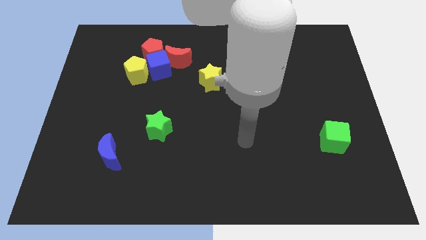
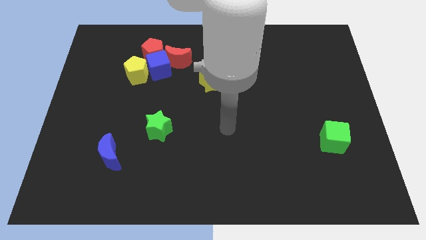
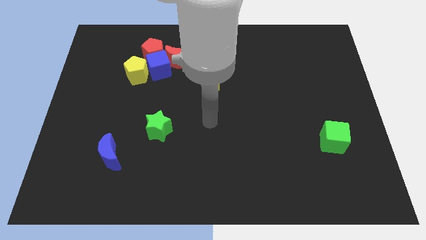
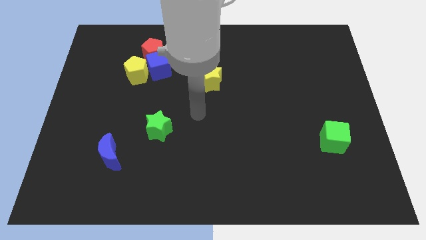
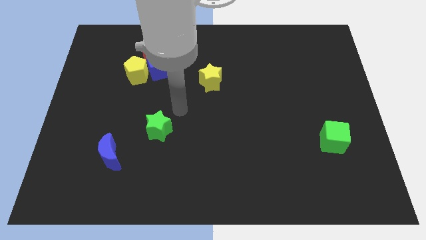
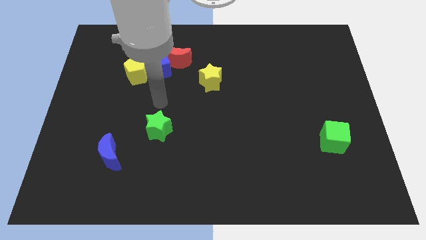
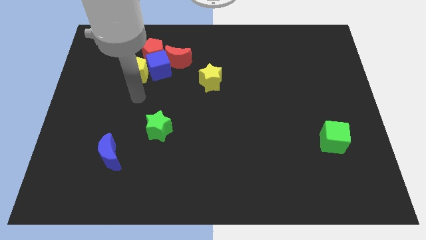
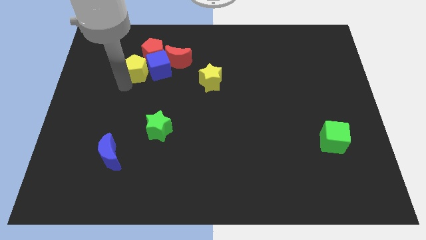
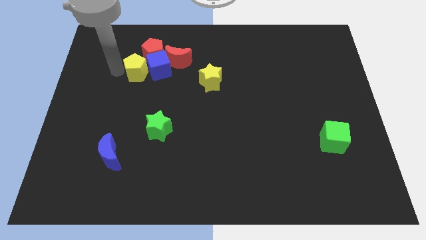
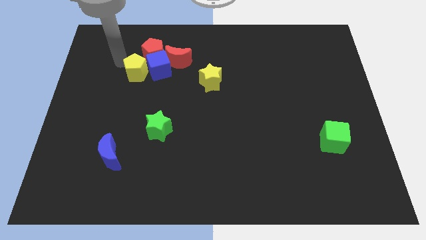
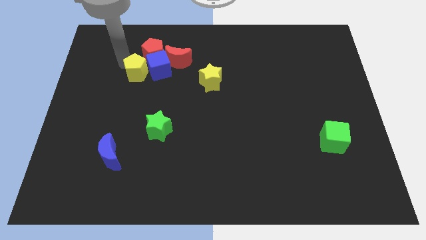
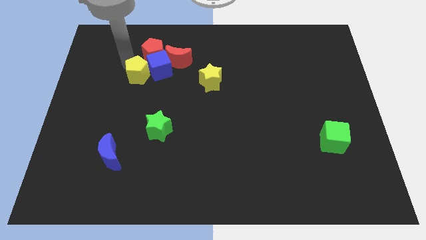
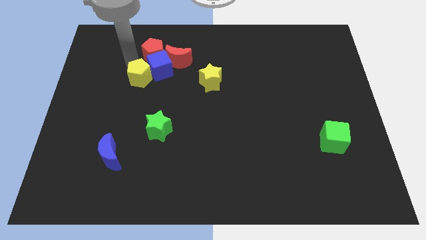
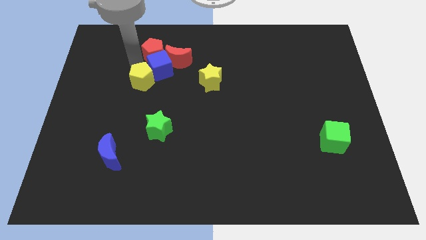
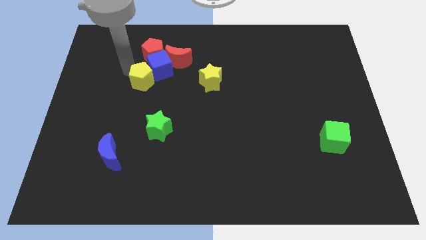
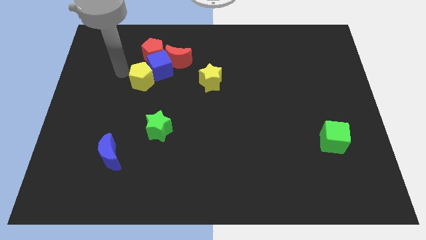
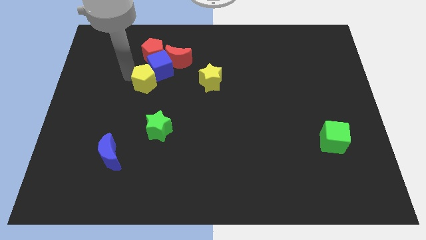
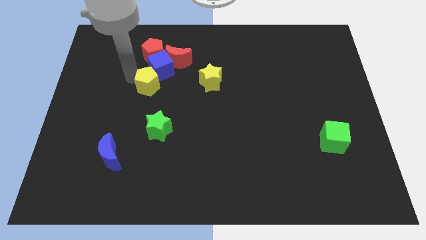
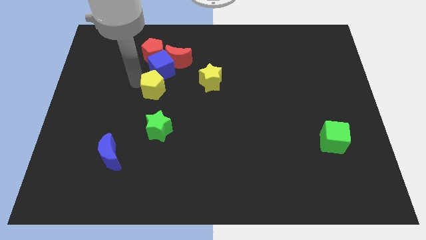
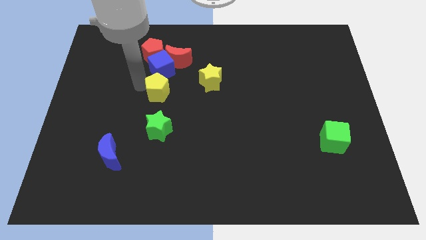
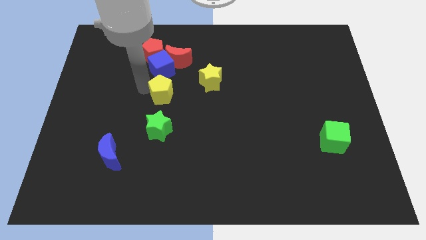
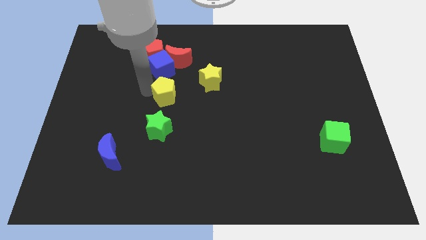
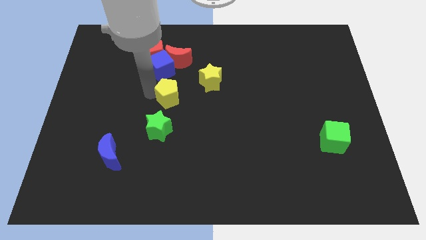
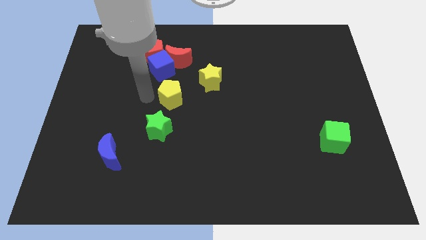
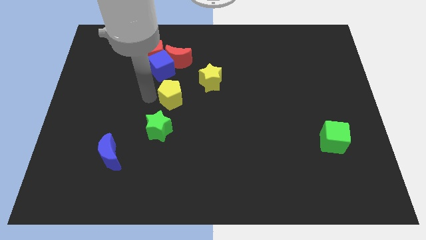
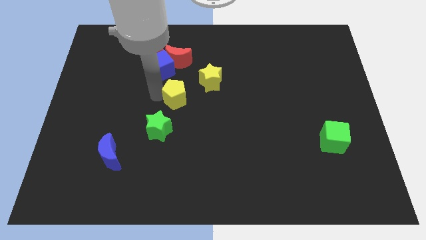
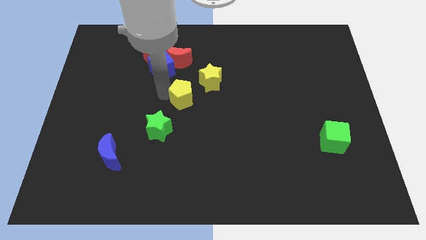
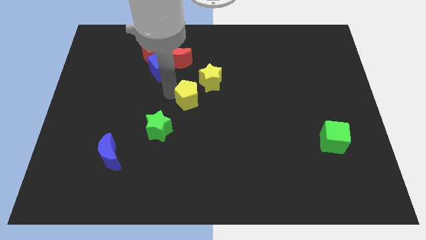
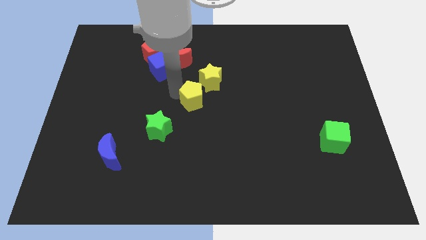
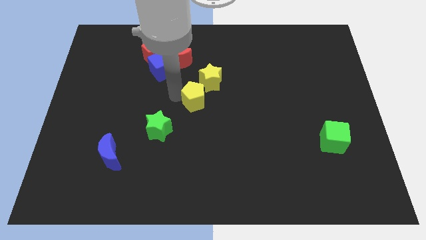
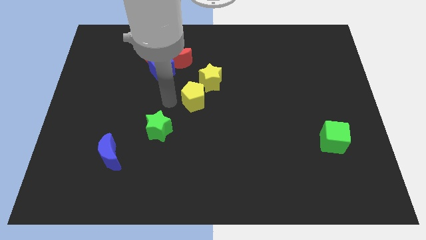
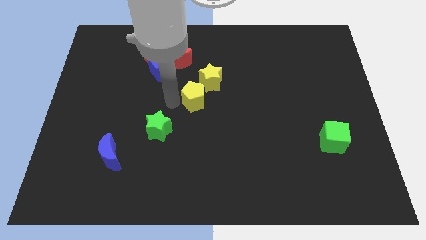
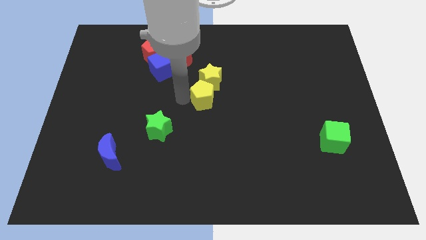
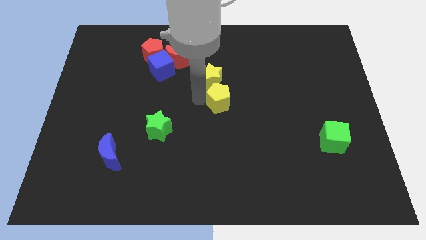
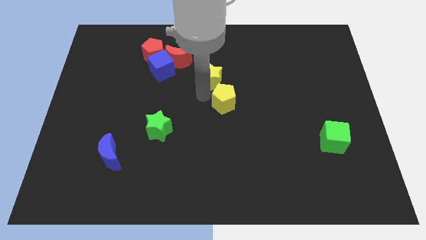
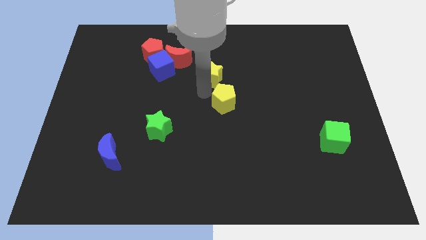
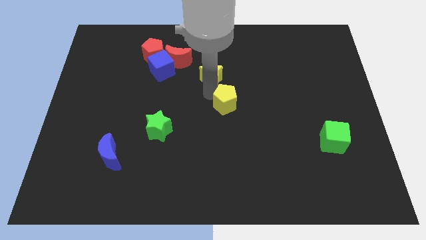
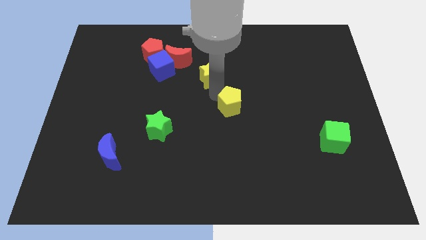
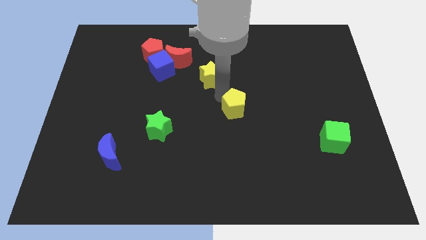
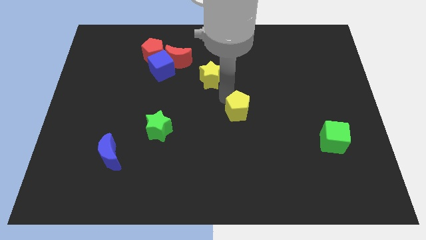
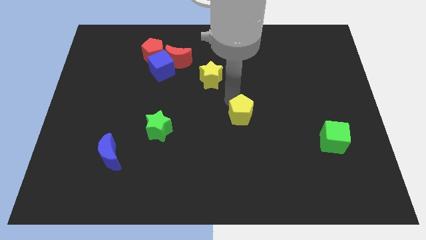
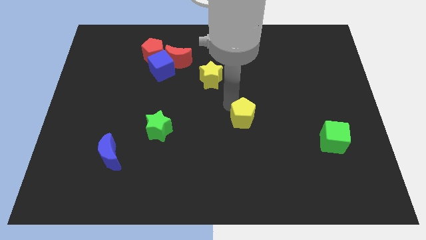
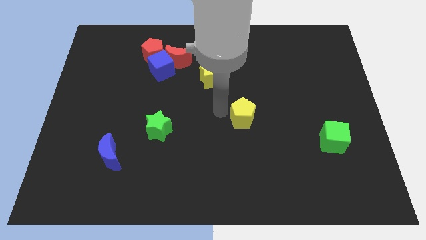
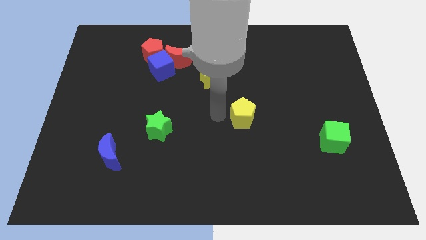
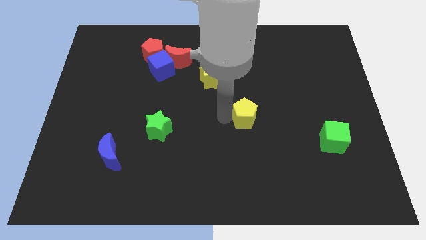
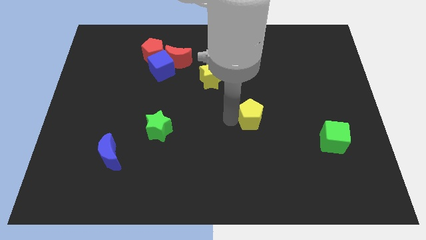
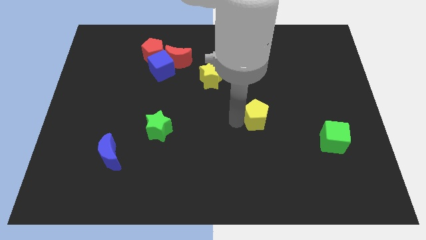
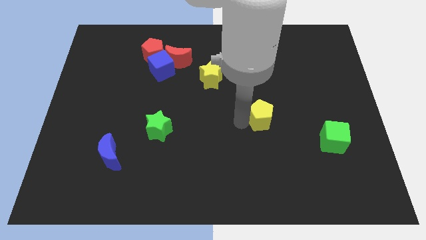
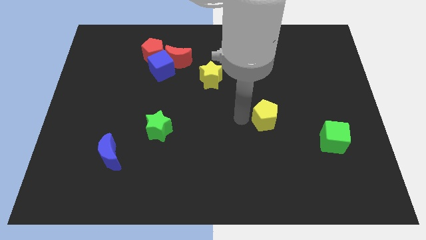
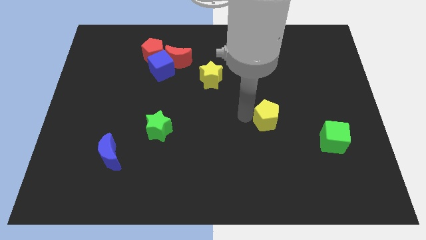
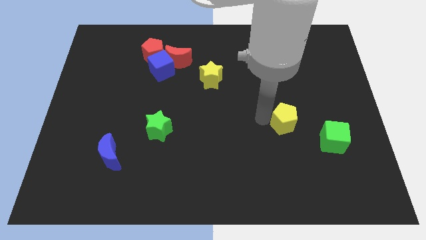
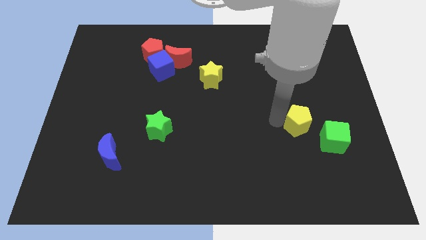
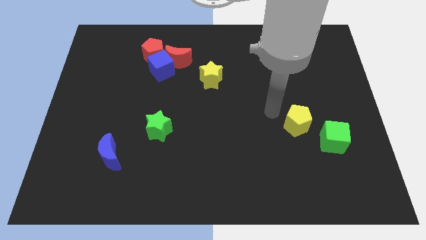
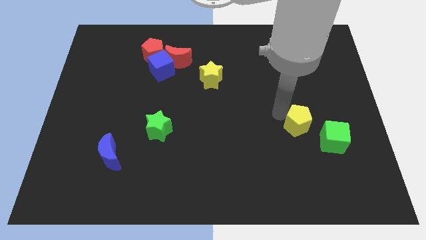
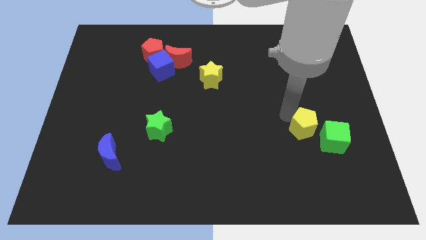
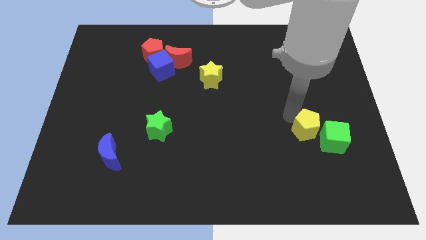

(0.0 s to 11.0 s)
put the yellow pentagon next to the green cube
